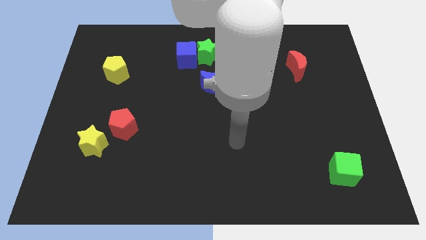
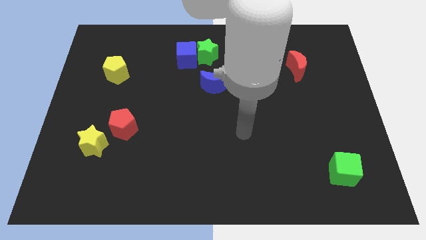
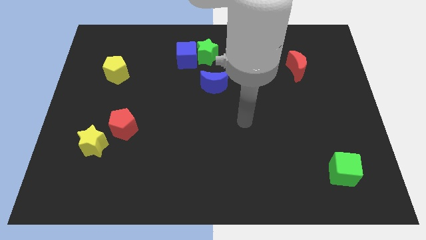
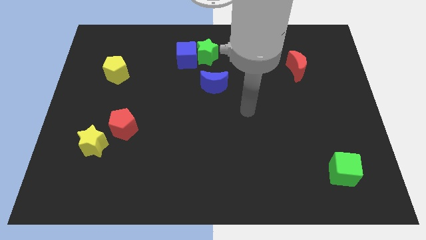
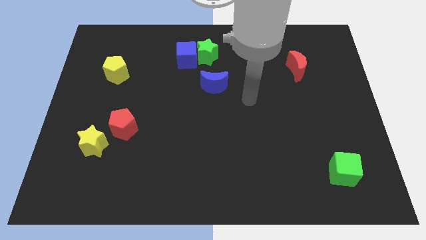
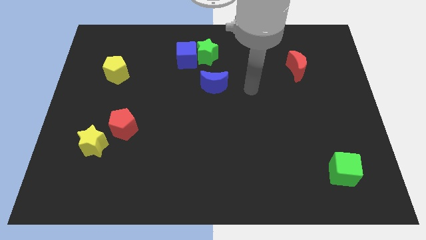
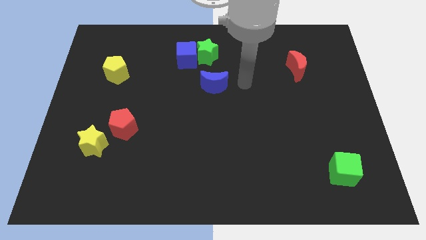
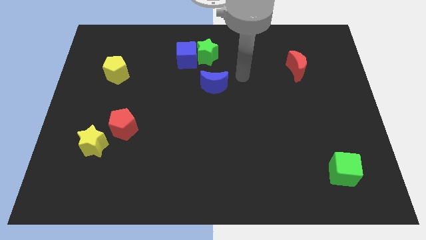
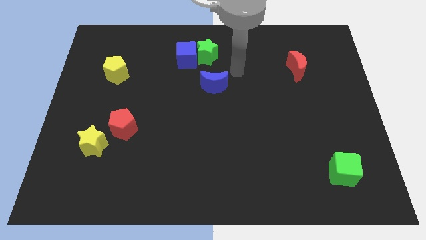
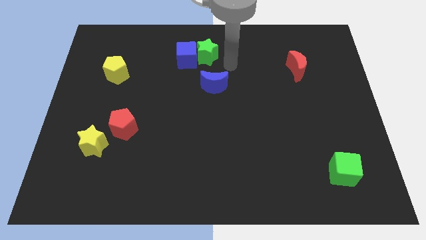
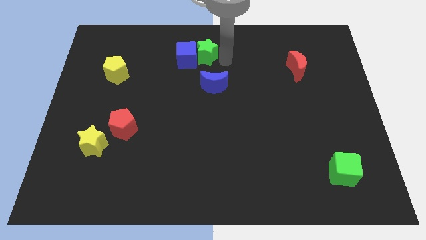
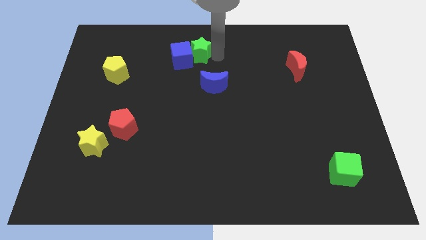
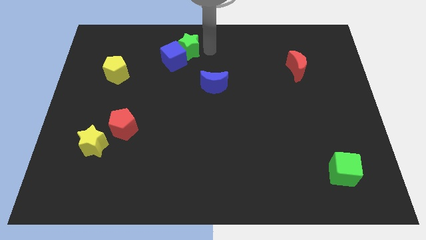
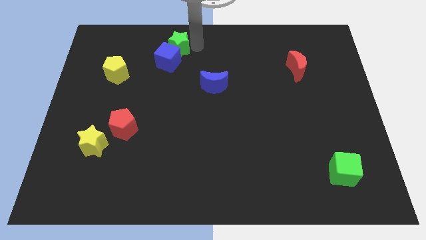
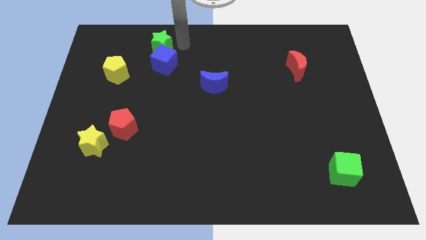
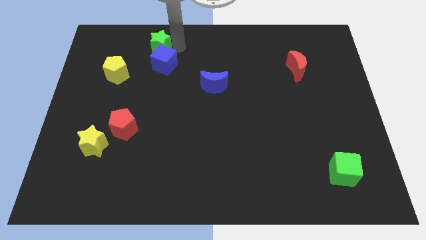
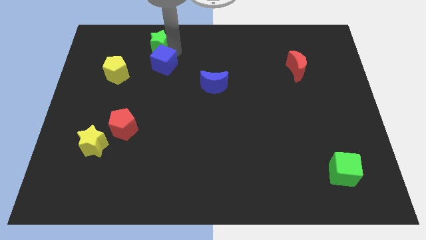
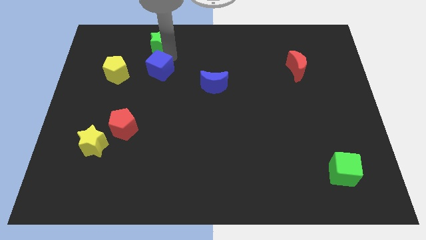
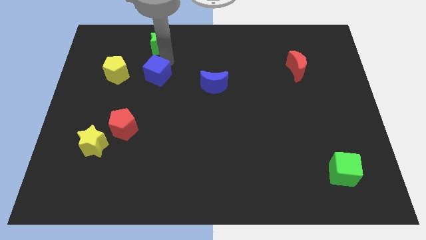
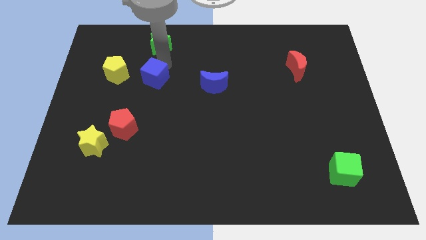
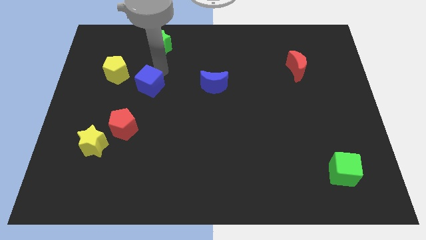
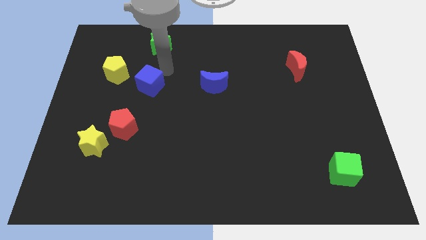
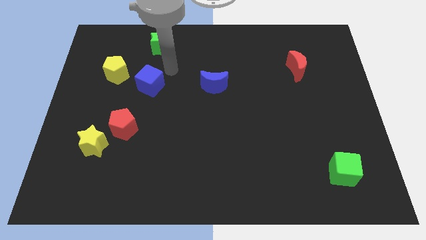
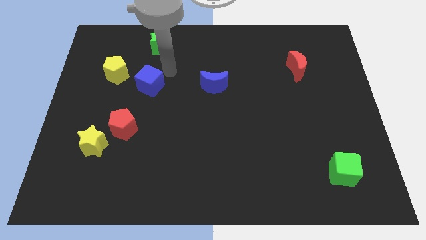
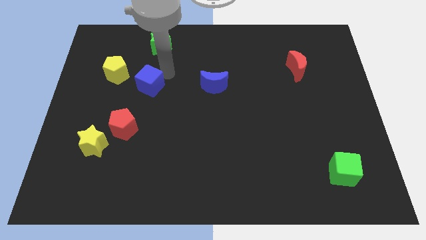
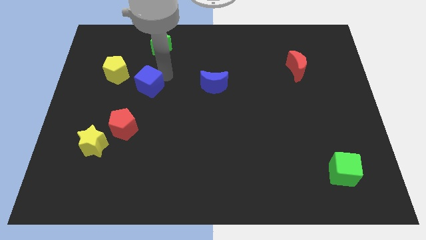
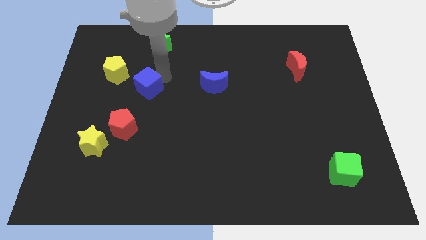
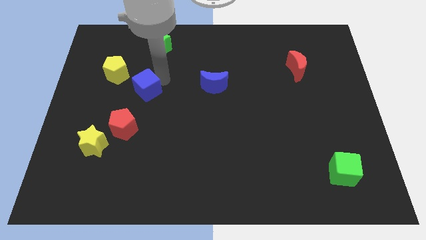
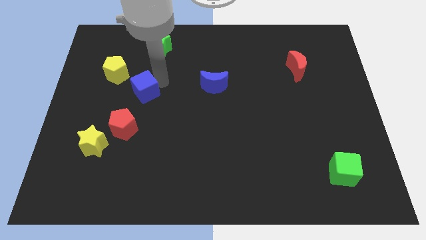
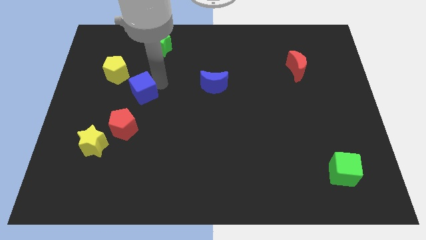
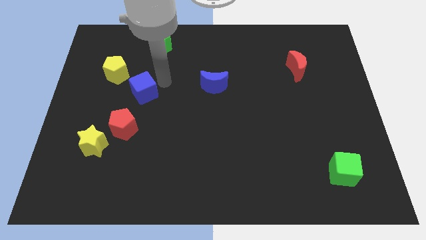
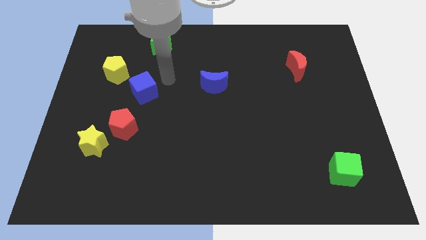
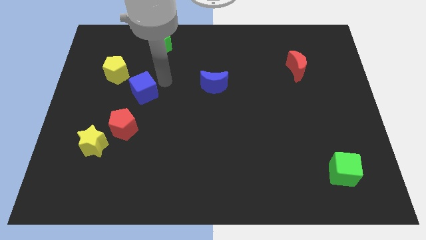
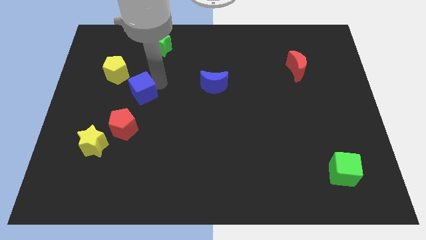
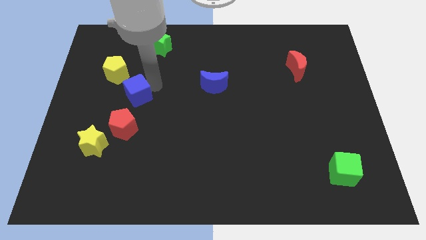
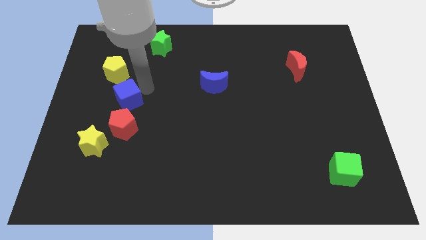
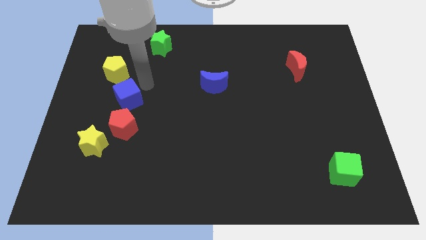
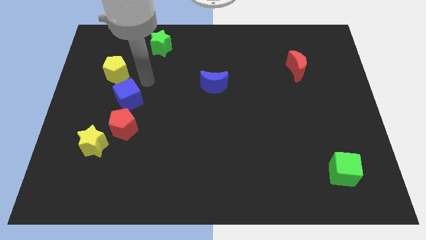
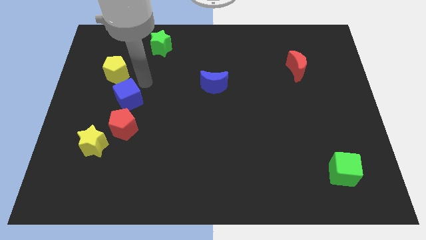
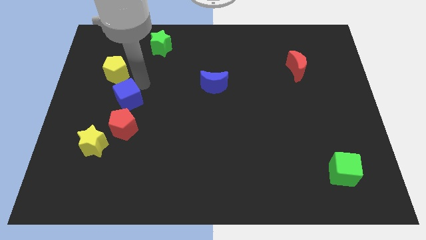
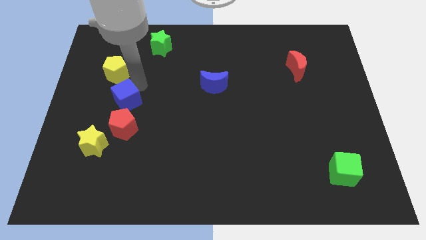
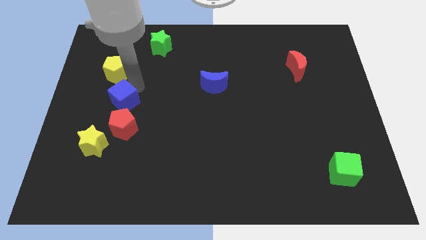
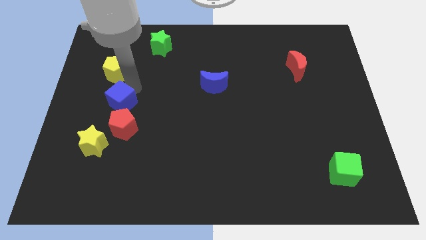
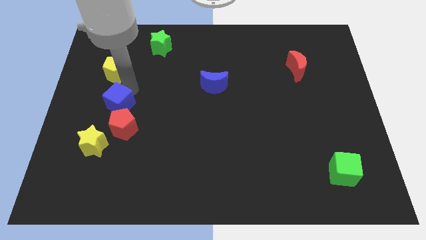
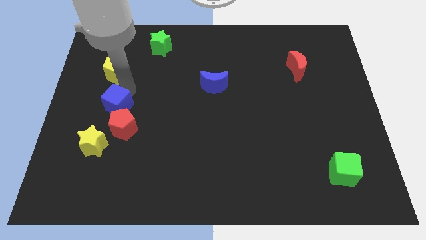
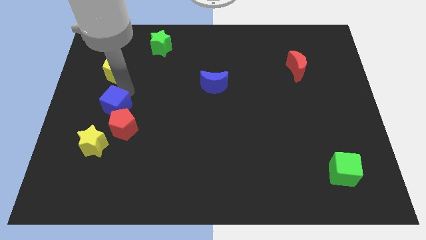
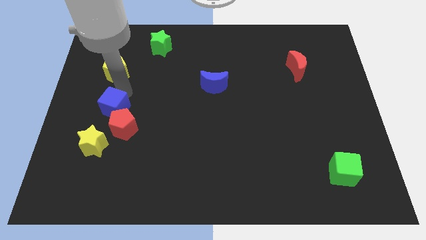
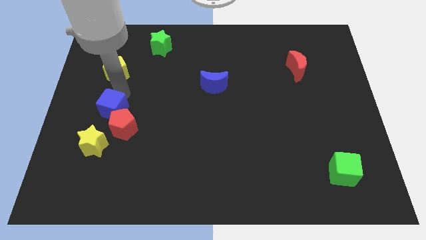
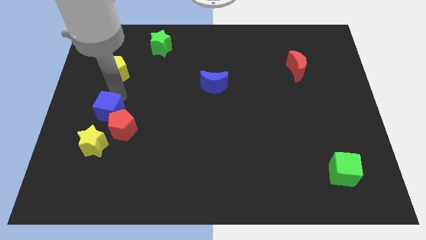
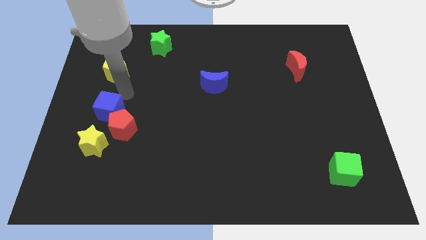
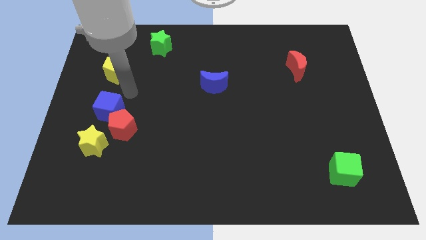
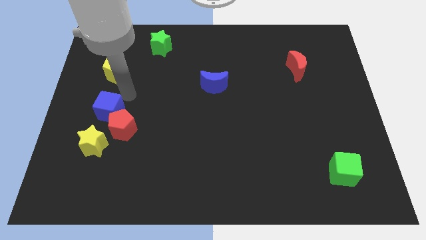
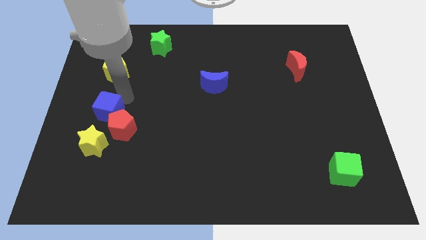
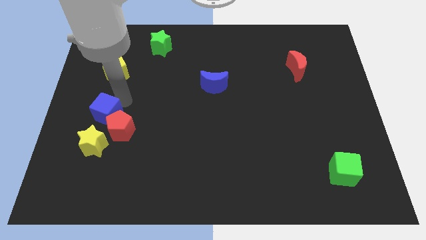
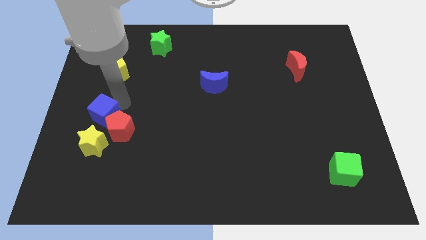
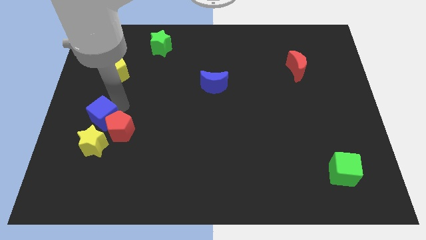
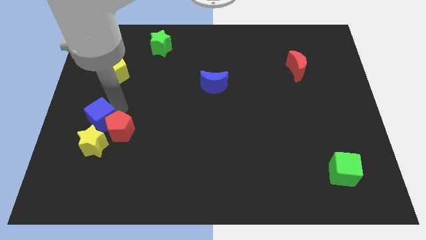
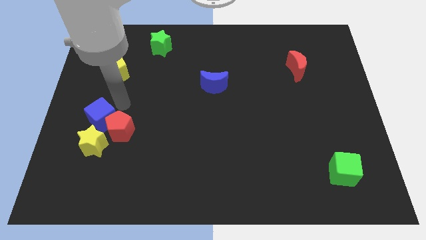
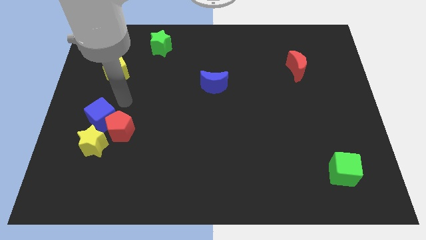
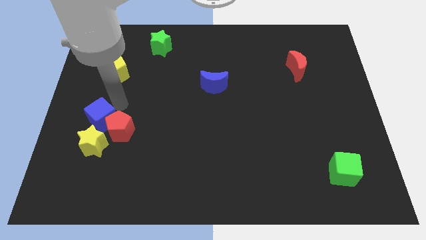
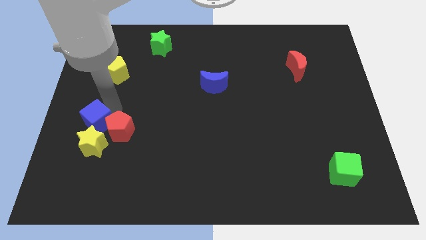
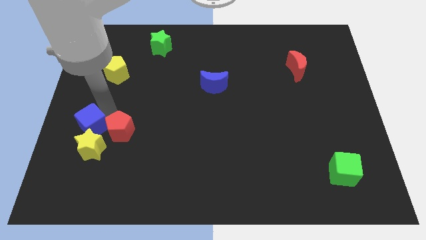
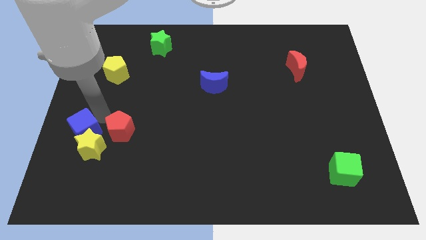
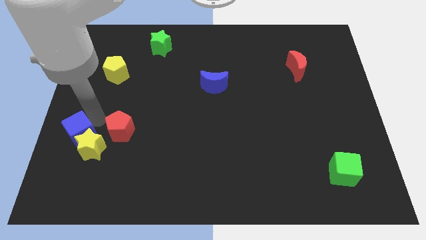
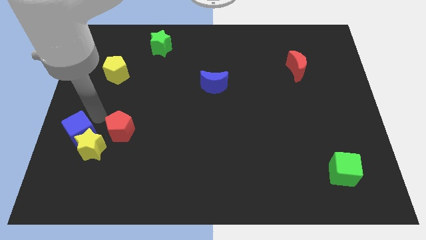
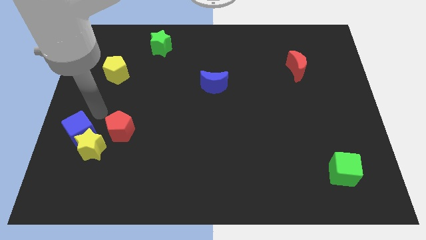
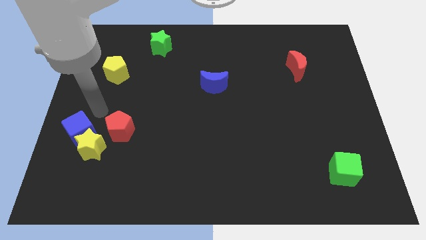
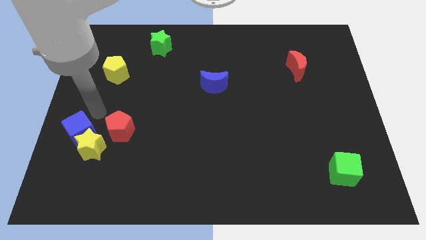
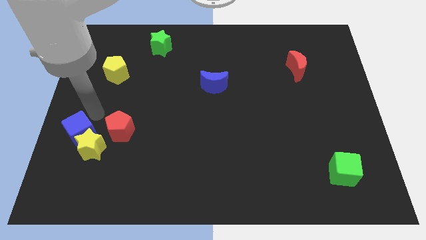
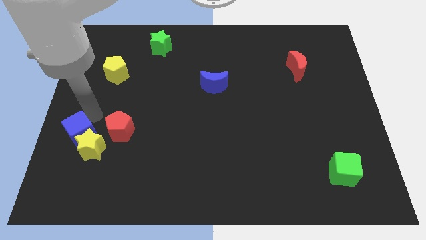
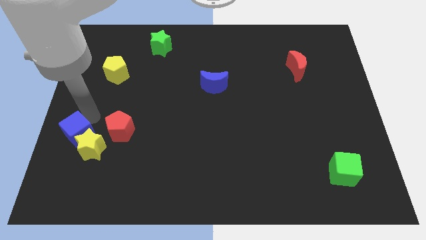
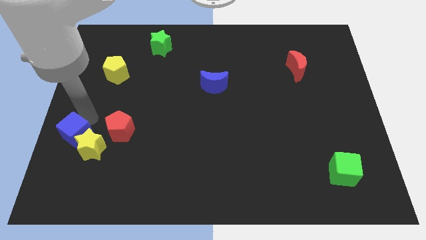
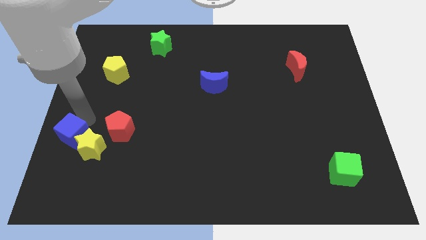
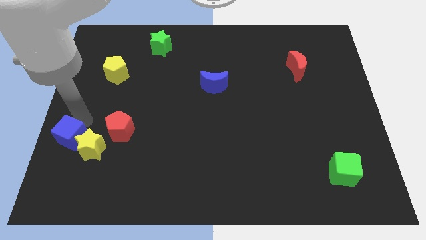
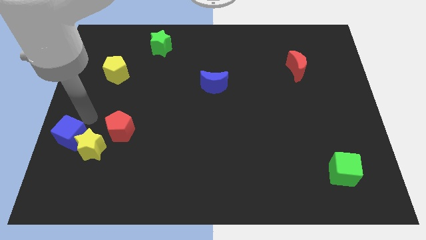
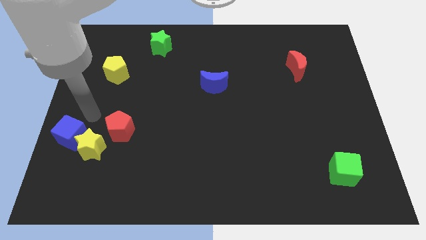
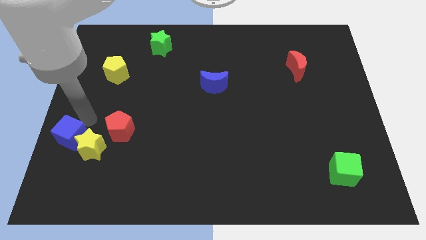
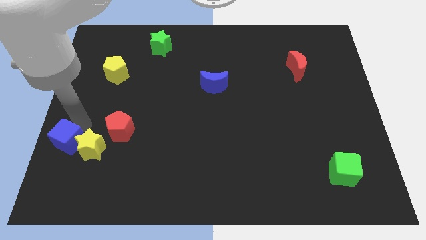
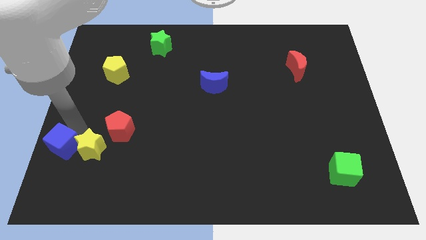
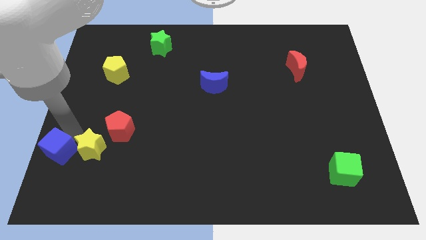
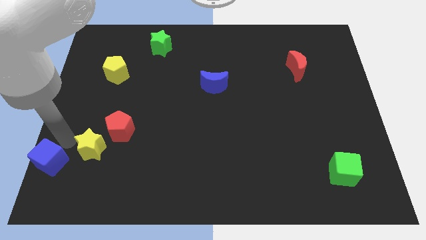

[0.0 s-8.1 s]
slide the blue cube to the lower left corner
